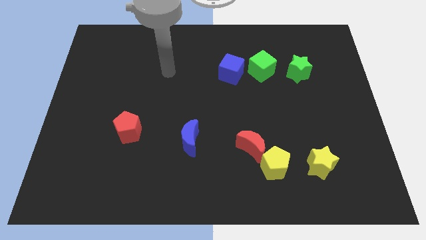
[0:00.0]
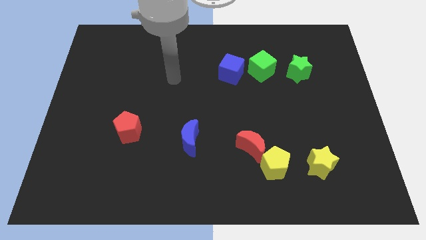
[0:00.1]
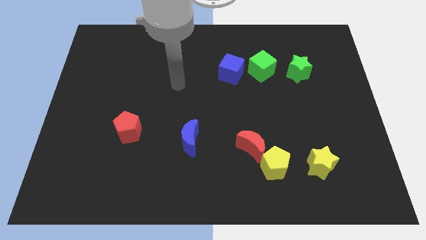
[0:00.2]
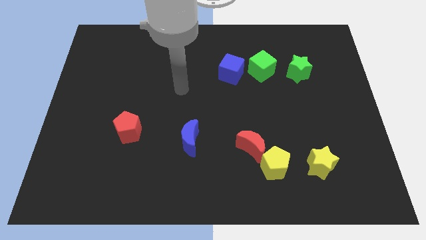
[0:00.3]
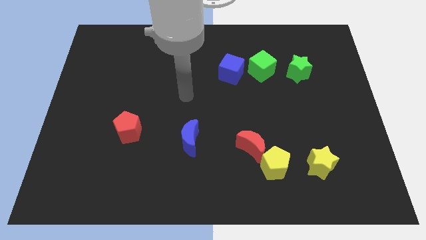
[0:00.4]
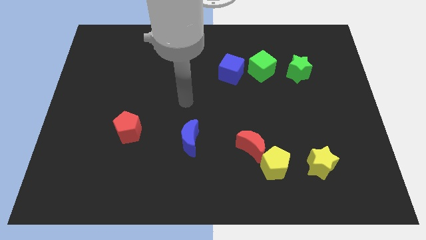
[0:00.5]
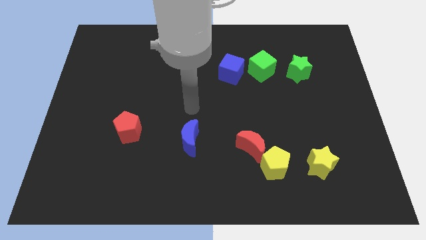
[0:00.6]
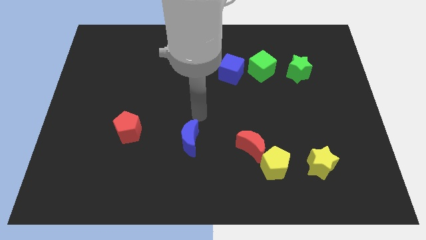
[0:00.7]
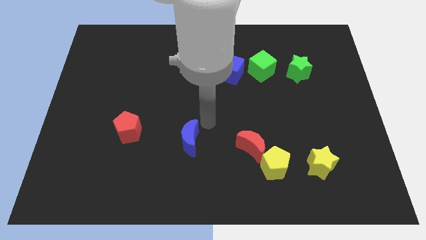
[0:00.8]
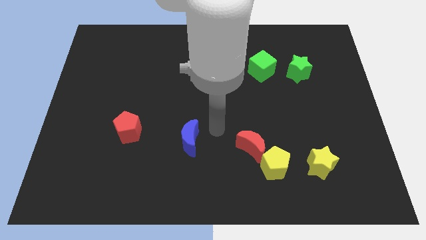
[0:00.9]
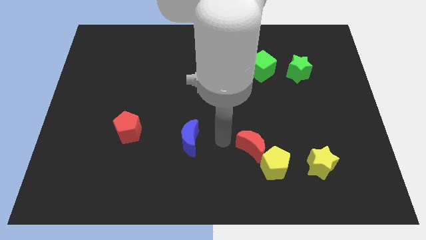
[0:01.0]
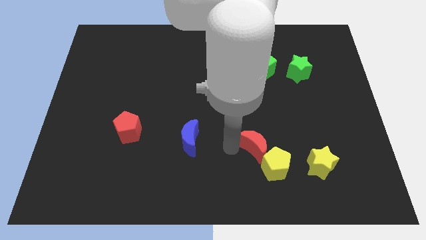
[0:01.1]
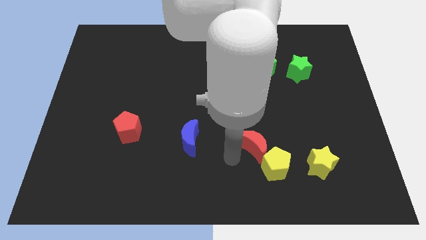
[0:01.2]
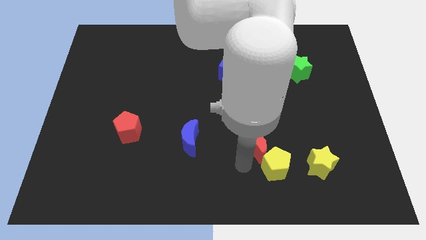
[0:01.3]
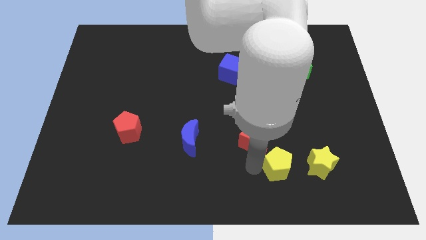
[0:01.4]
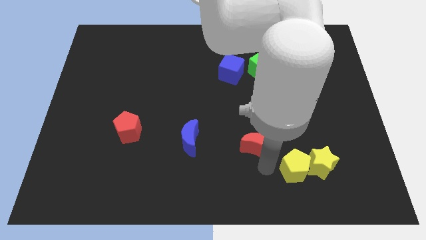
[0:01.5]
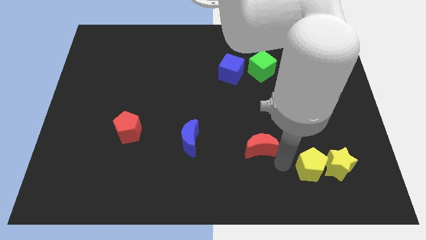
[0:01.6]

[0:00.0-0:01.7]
move the red moon away from the yellow pentagon

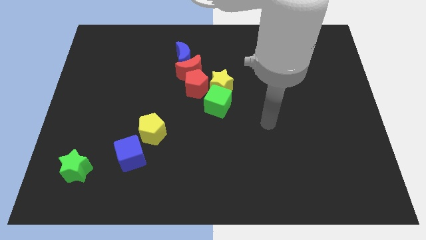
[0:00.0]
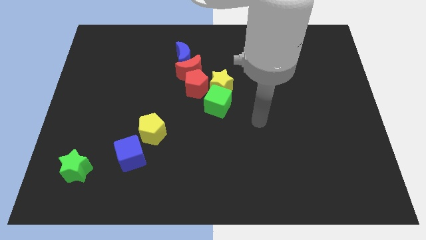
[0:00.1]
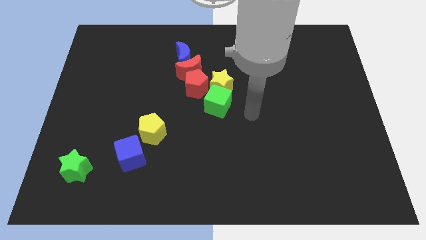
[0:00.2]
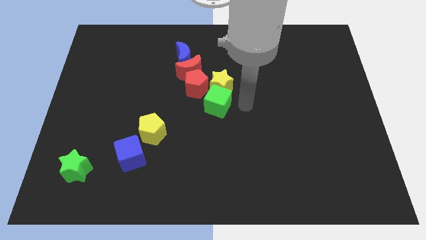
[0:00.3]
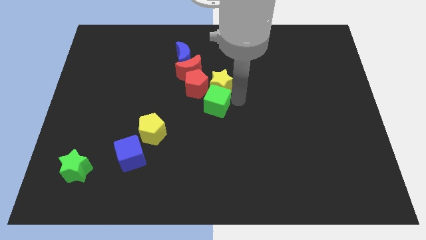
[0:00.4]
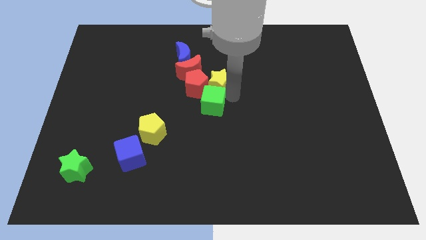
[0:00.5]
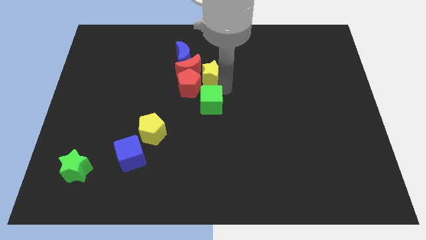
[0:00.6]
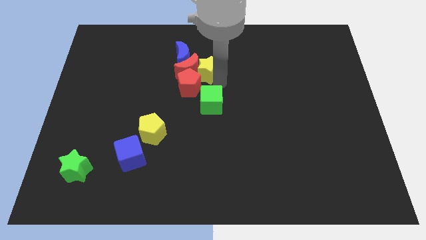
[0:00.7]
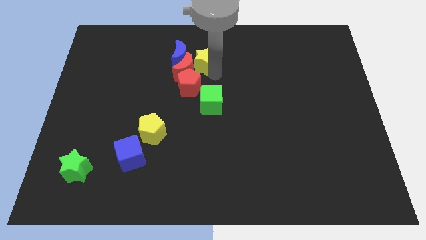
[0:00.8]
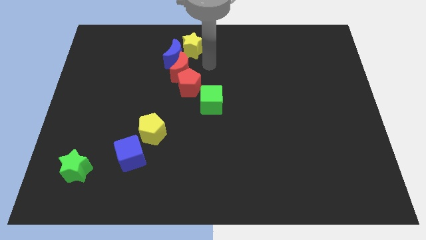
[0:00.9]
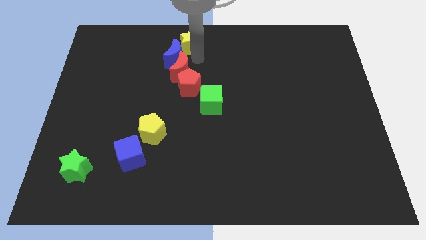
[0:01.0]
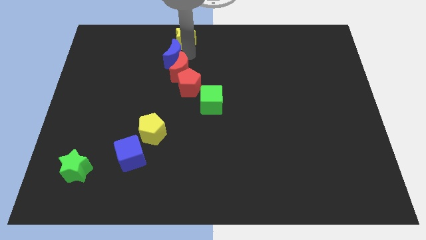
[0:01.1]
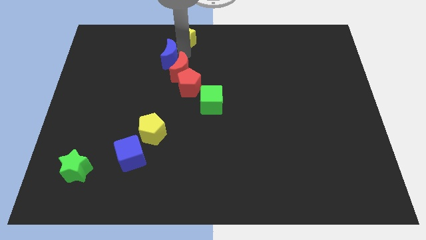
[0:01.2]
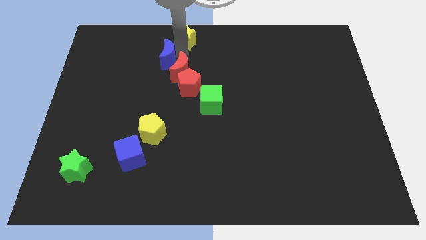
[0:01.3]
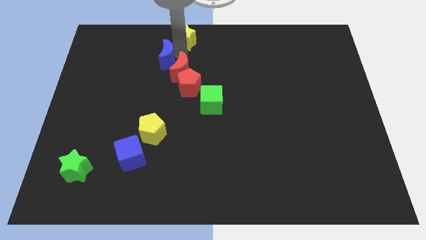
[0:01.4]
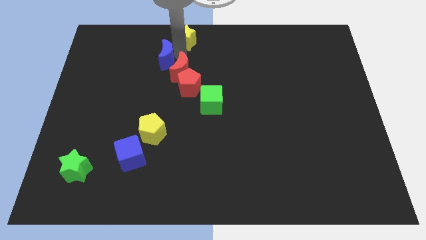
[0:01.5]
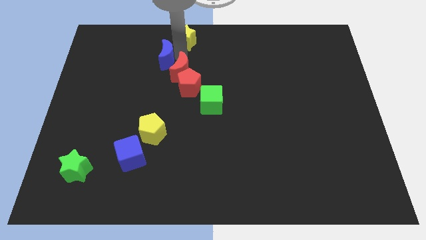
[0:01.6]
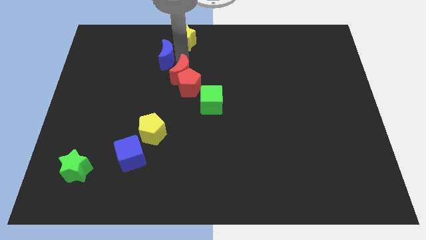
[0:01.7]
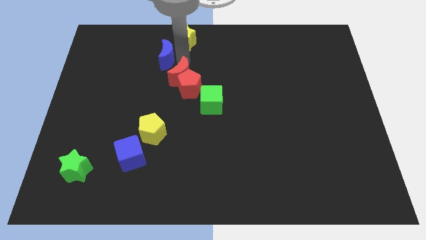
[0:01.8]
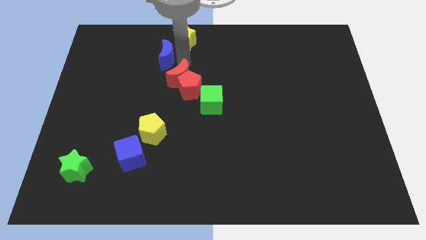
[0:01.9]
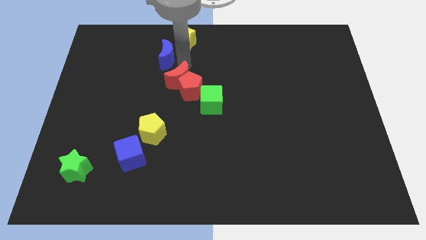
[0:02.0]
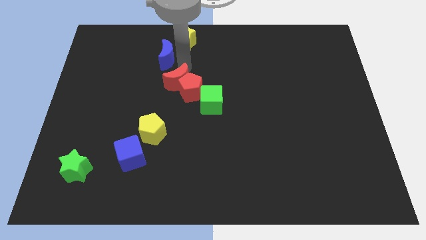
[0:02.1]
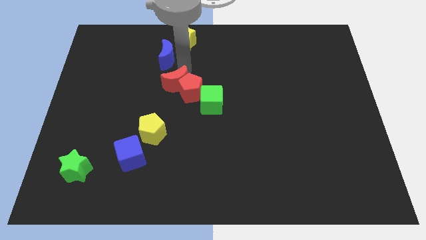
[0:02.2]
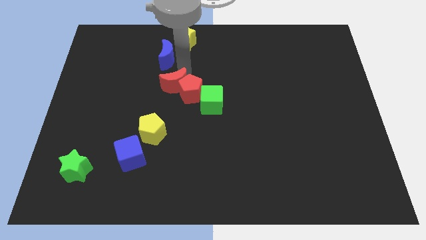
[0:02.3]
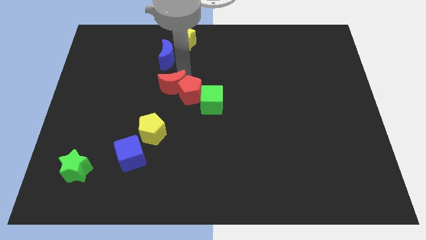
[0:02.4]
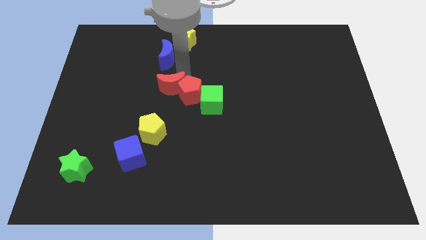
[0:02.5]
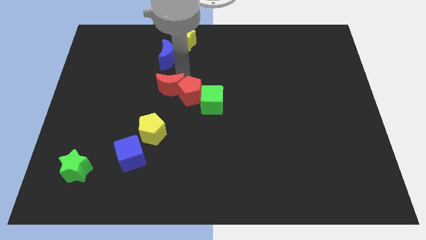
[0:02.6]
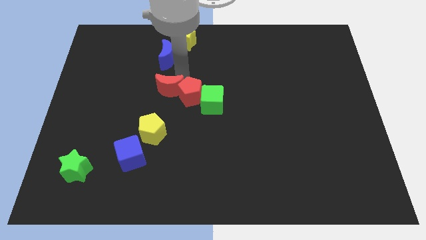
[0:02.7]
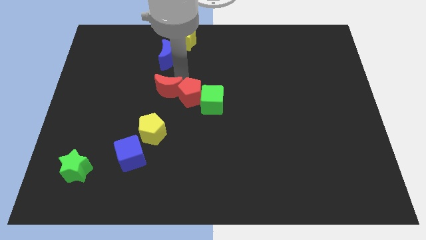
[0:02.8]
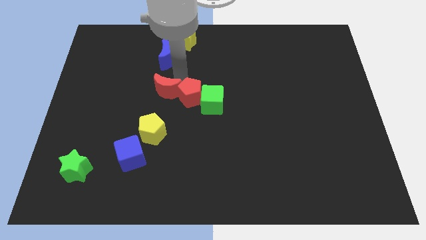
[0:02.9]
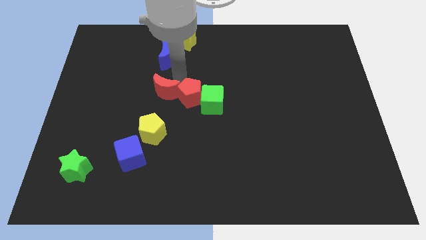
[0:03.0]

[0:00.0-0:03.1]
separate the red moon from the group of blocks

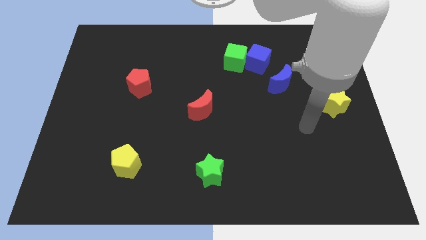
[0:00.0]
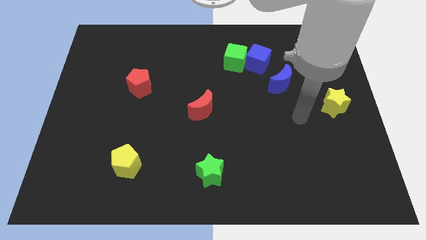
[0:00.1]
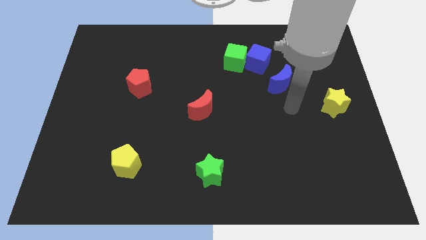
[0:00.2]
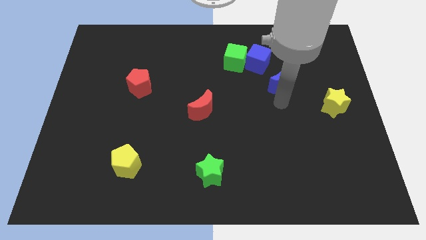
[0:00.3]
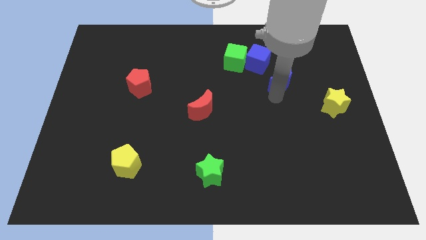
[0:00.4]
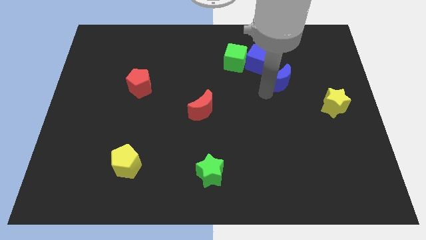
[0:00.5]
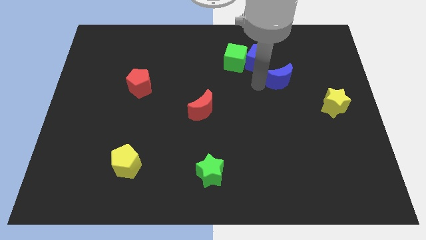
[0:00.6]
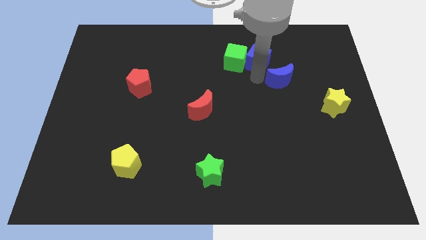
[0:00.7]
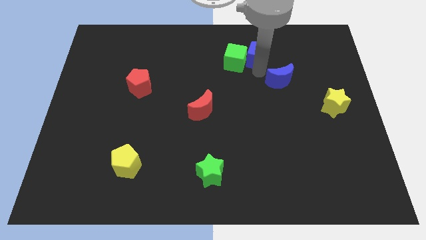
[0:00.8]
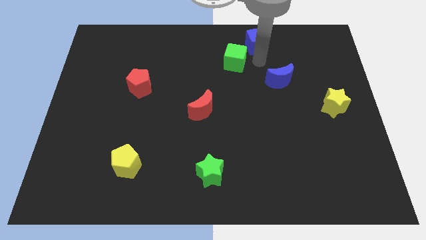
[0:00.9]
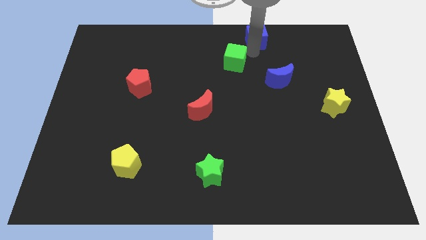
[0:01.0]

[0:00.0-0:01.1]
separate the green cube from the blue cube

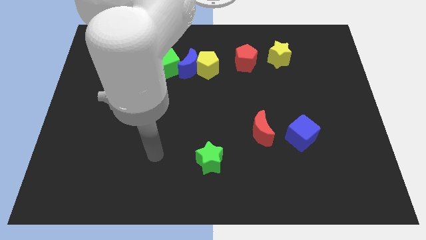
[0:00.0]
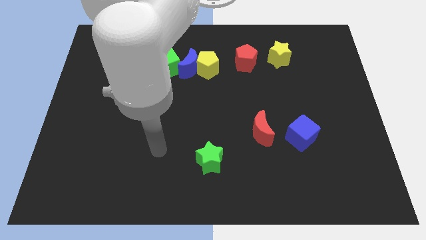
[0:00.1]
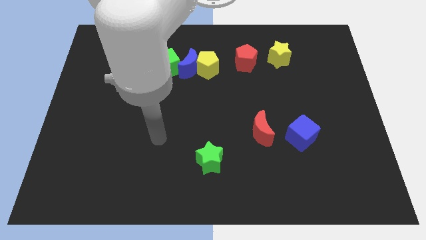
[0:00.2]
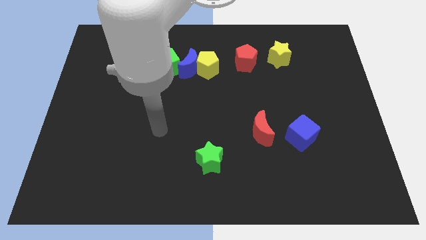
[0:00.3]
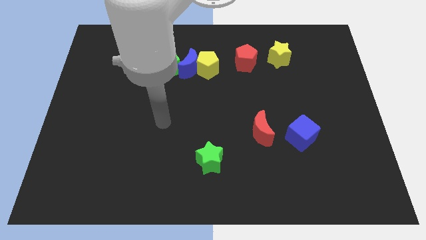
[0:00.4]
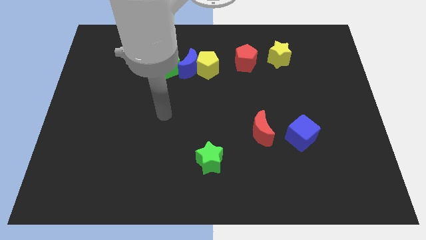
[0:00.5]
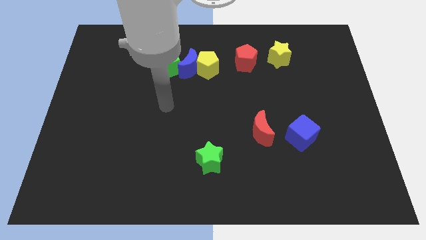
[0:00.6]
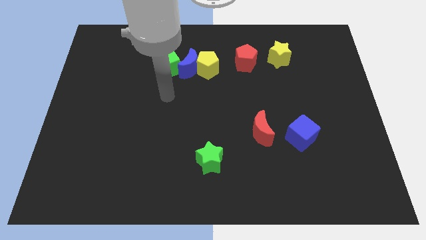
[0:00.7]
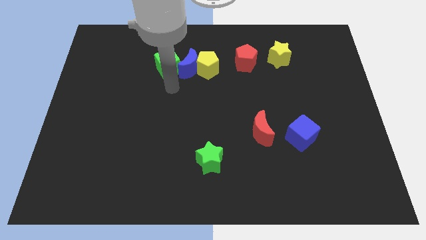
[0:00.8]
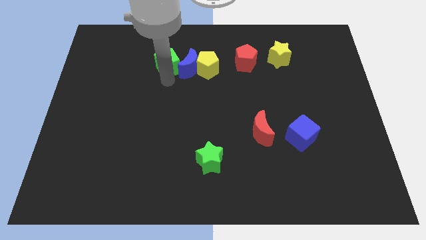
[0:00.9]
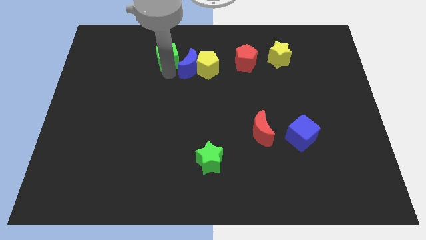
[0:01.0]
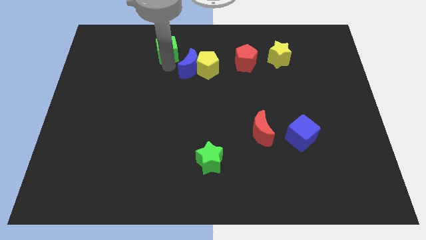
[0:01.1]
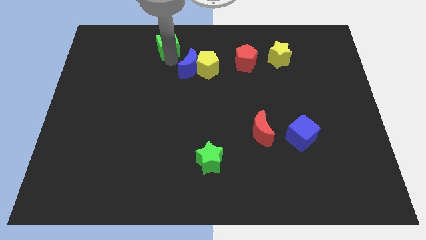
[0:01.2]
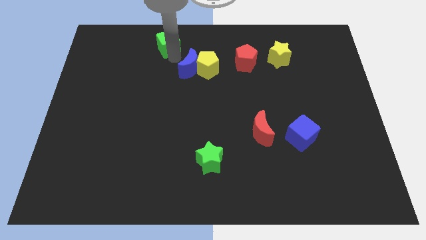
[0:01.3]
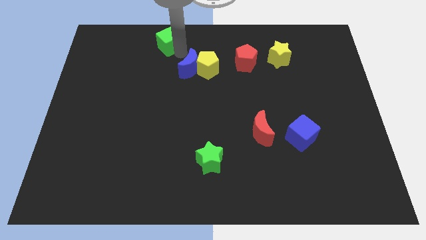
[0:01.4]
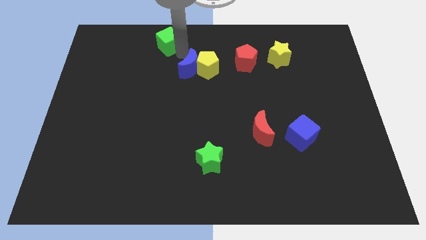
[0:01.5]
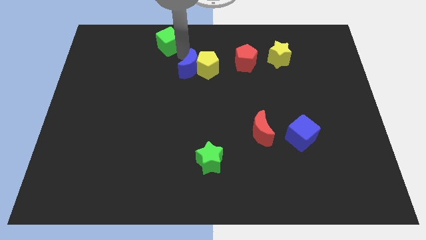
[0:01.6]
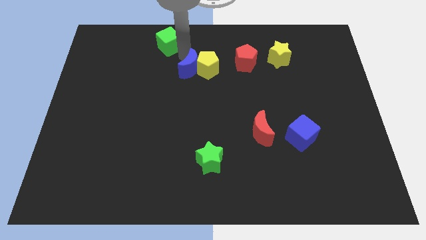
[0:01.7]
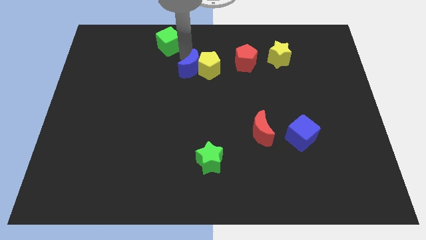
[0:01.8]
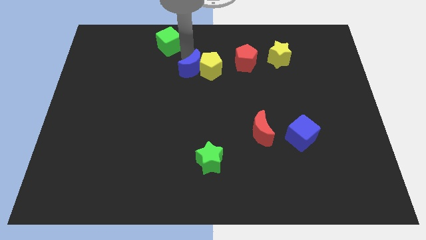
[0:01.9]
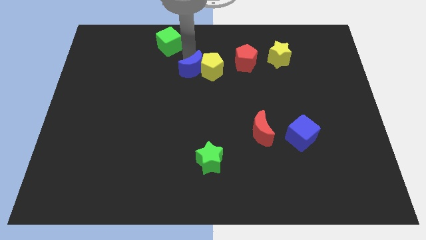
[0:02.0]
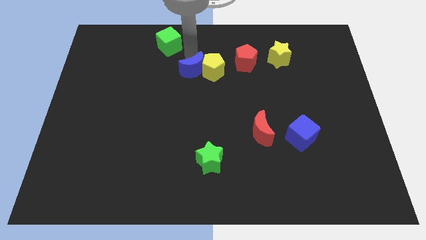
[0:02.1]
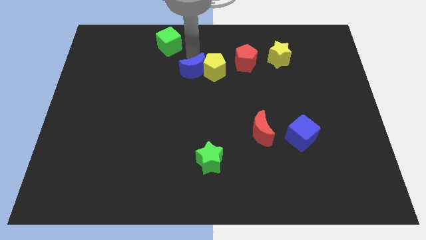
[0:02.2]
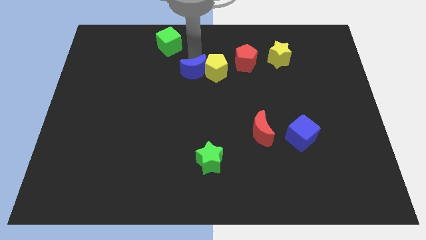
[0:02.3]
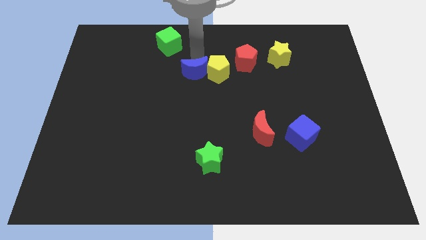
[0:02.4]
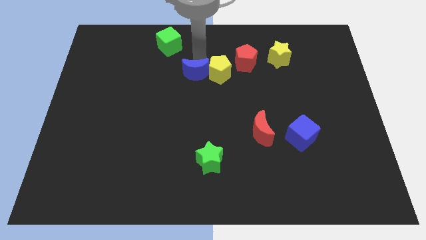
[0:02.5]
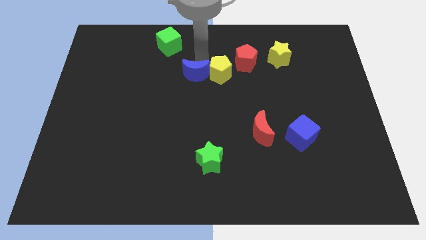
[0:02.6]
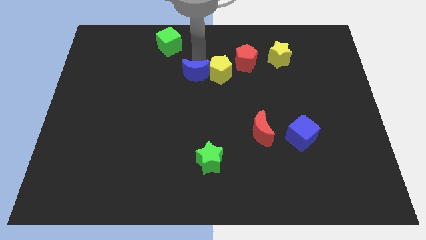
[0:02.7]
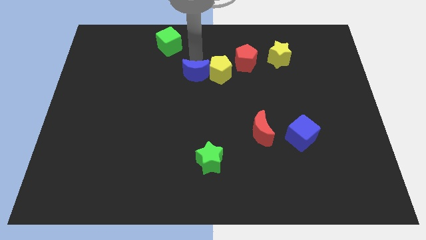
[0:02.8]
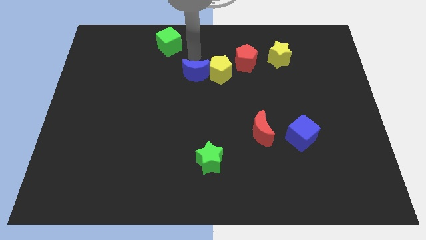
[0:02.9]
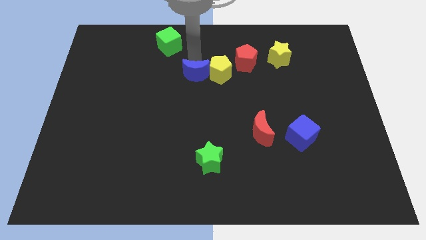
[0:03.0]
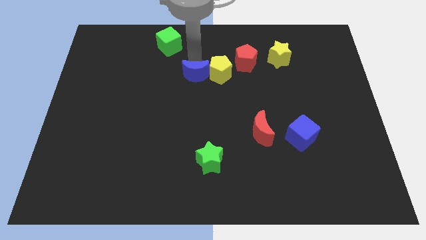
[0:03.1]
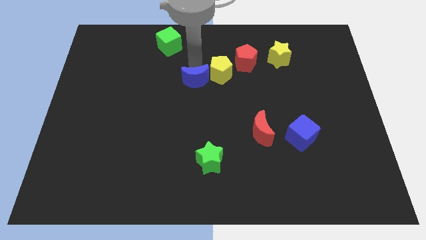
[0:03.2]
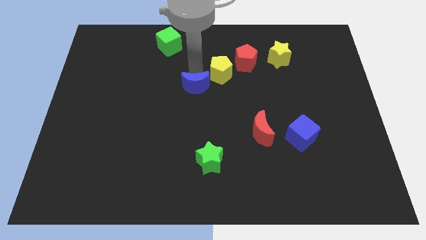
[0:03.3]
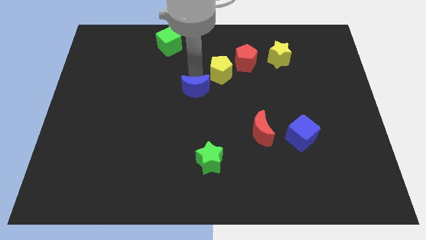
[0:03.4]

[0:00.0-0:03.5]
separate the blue moon from the yellow pentagon and green cube
